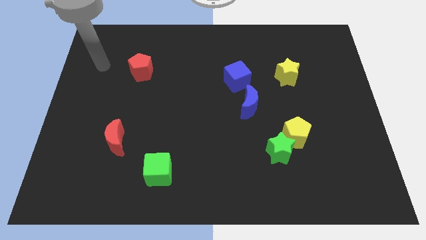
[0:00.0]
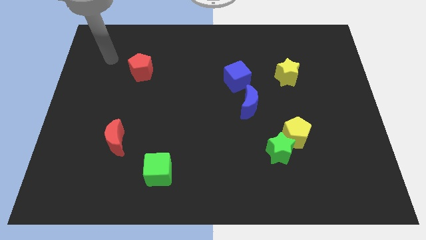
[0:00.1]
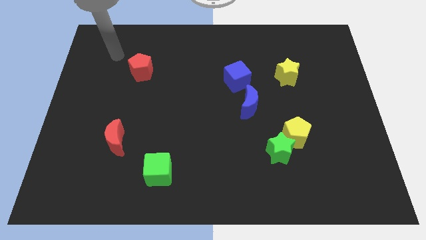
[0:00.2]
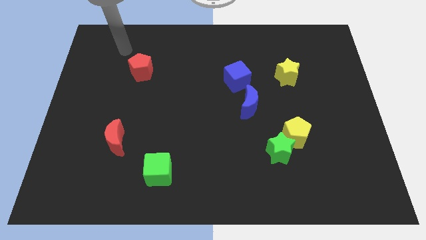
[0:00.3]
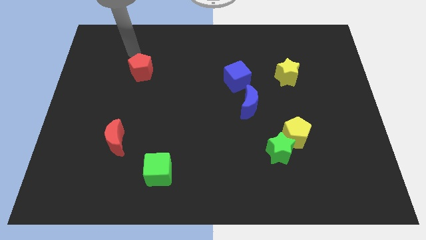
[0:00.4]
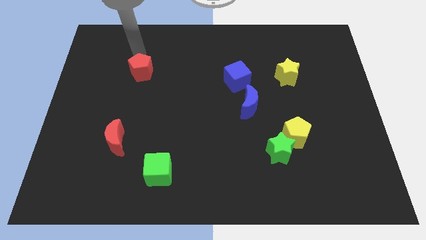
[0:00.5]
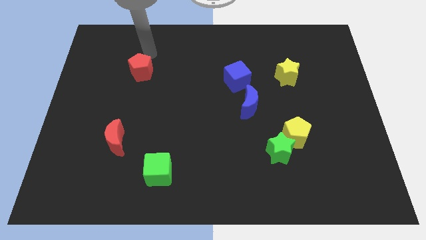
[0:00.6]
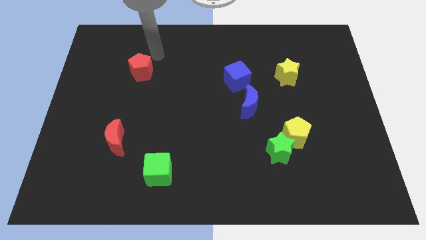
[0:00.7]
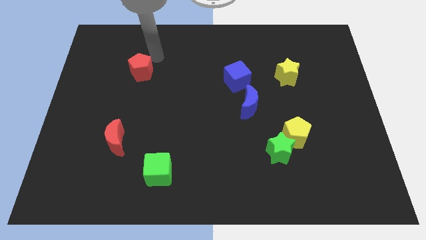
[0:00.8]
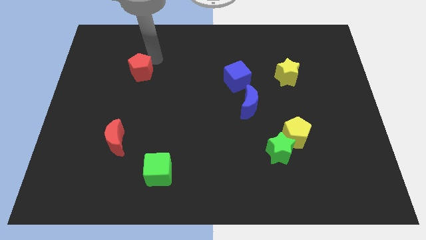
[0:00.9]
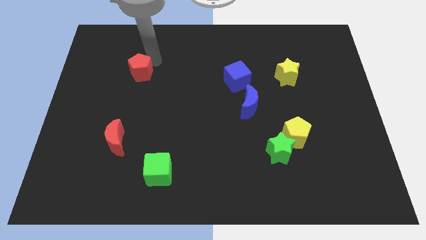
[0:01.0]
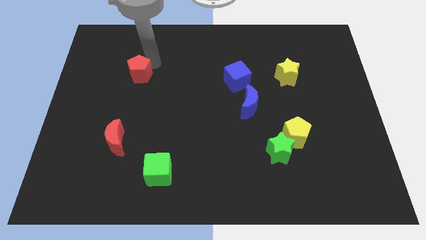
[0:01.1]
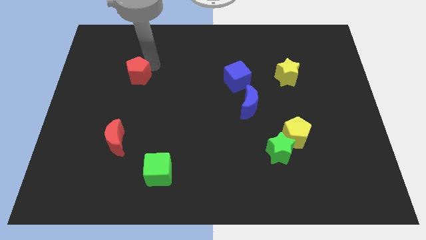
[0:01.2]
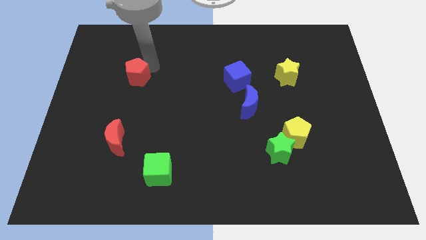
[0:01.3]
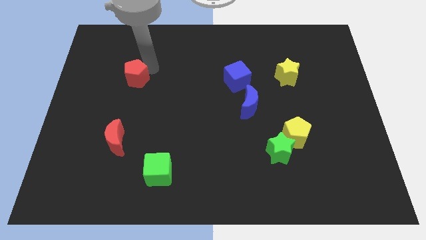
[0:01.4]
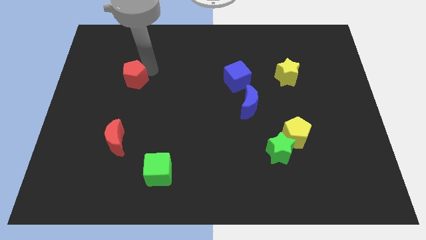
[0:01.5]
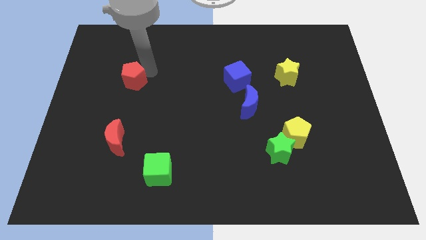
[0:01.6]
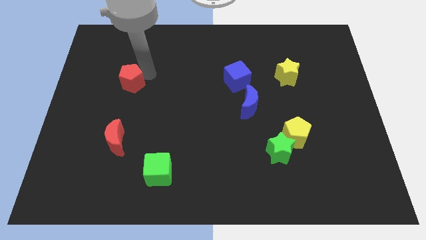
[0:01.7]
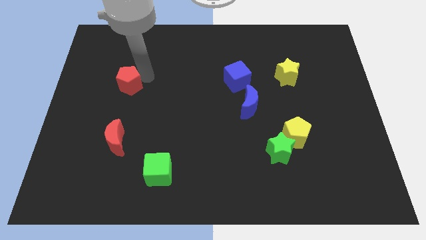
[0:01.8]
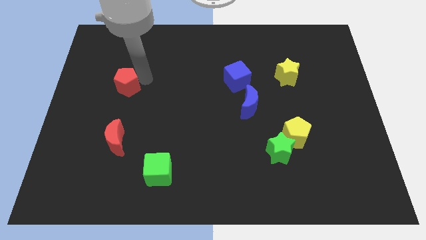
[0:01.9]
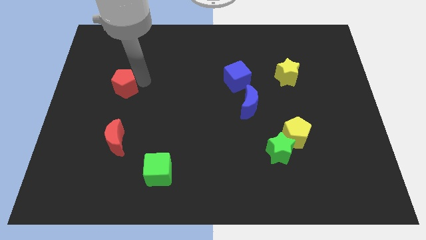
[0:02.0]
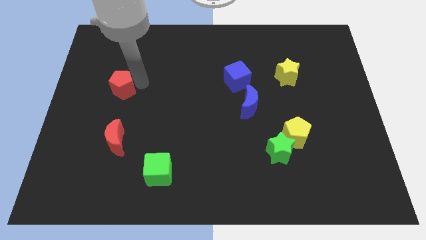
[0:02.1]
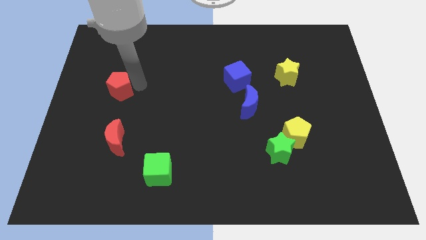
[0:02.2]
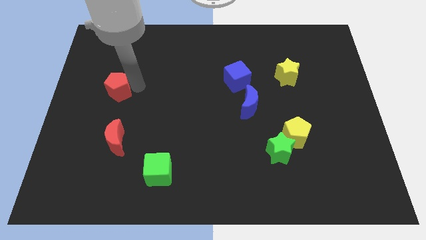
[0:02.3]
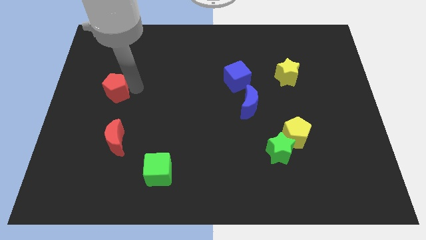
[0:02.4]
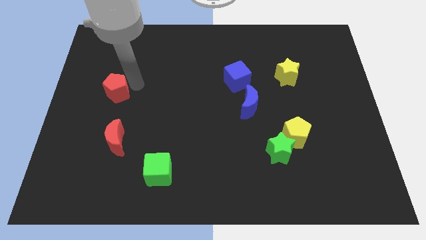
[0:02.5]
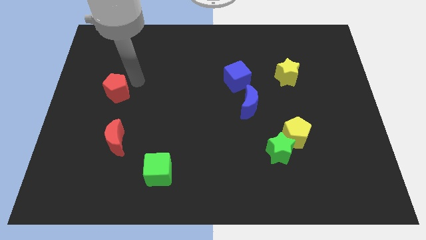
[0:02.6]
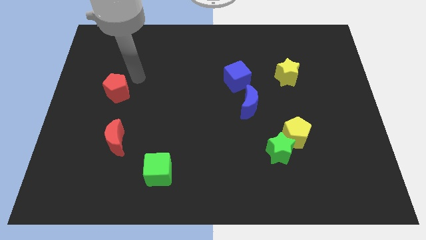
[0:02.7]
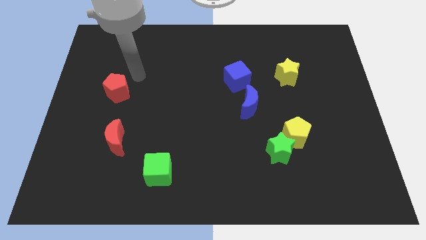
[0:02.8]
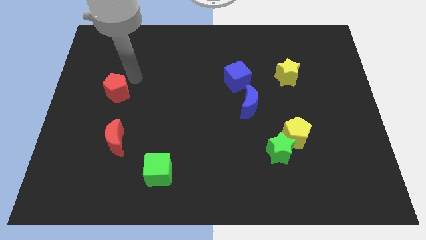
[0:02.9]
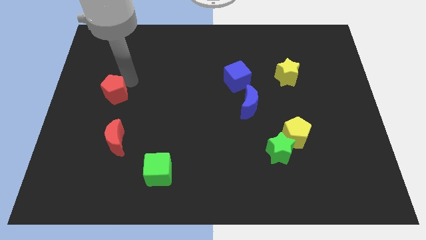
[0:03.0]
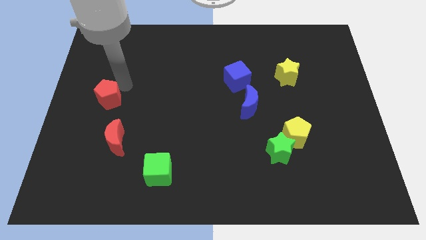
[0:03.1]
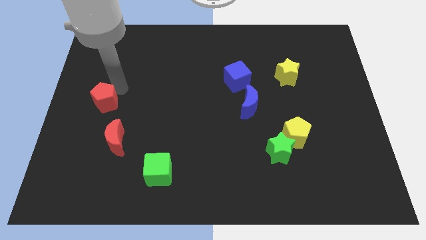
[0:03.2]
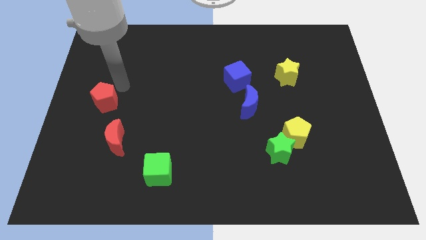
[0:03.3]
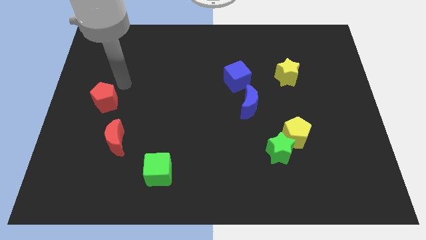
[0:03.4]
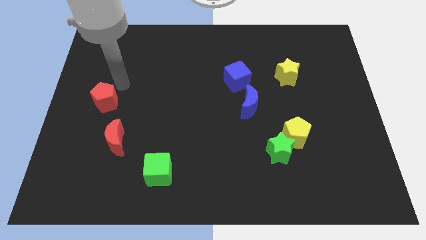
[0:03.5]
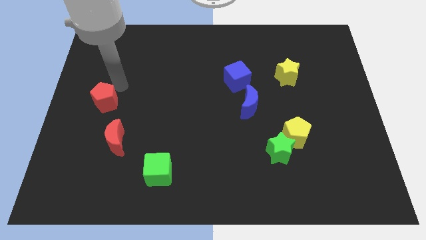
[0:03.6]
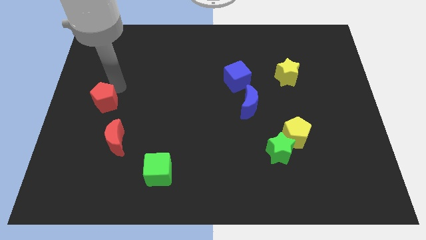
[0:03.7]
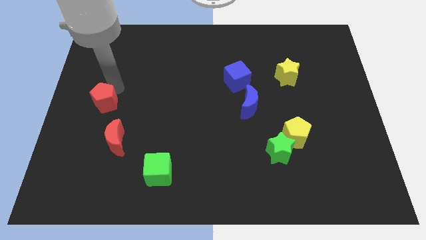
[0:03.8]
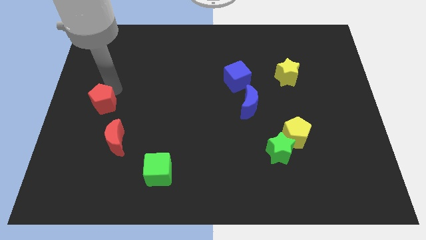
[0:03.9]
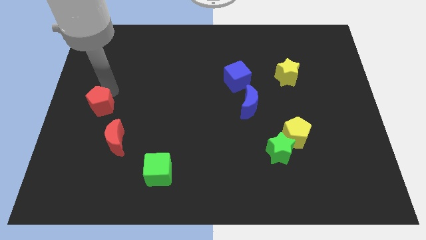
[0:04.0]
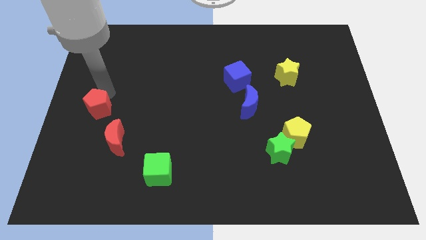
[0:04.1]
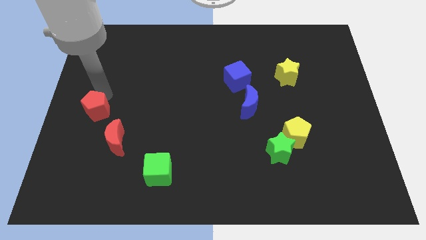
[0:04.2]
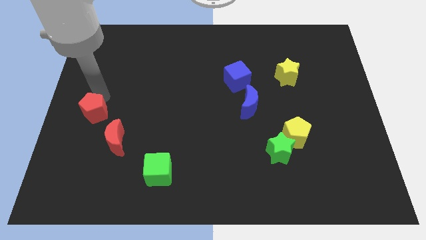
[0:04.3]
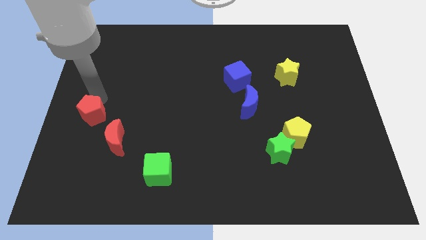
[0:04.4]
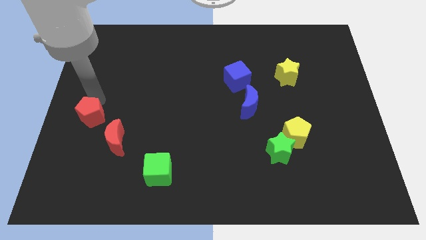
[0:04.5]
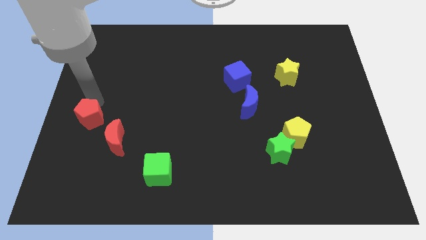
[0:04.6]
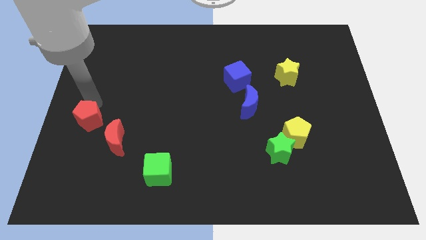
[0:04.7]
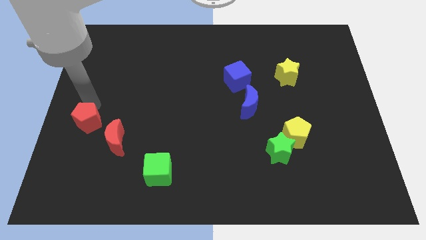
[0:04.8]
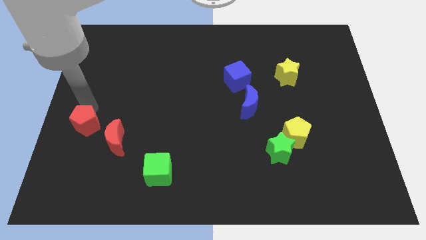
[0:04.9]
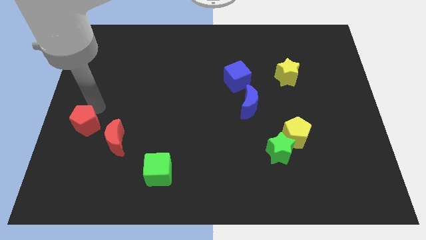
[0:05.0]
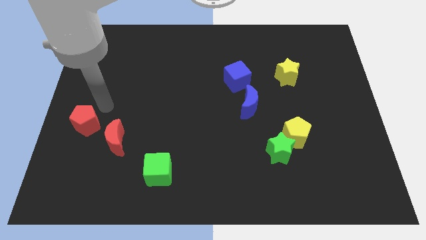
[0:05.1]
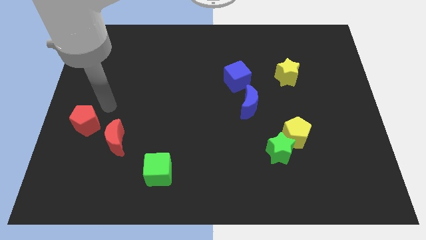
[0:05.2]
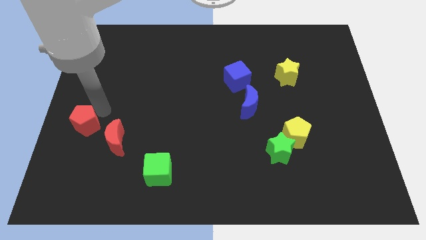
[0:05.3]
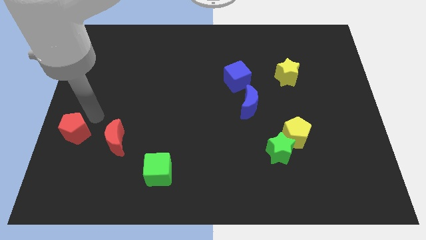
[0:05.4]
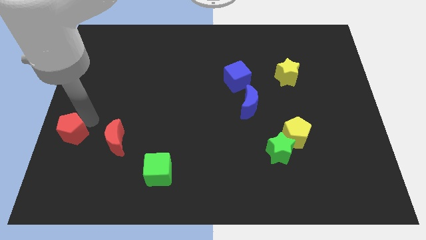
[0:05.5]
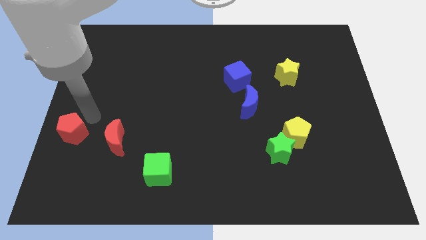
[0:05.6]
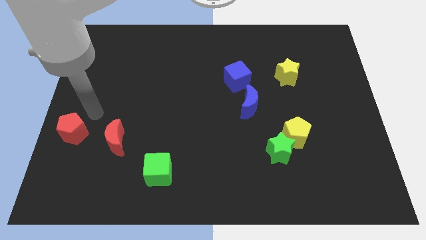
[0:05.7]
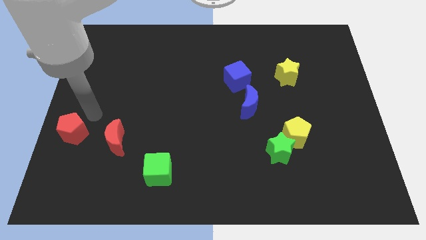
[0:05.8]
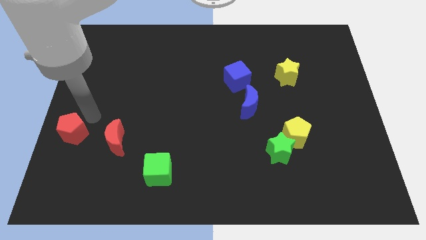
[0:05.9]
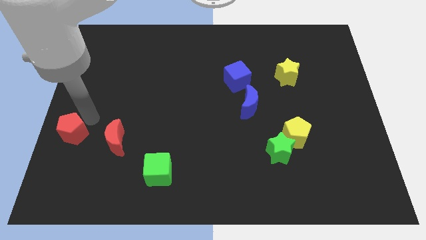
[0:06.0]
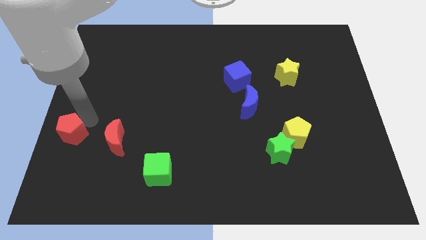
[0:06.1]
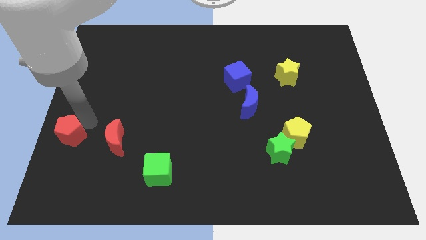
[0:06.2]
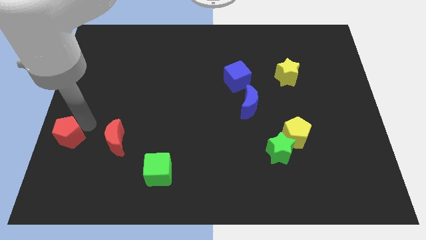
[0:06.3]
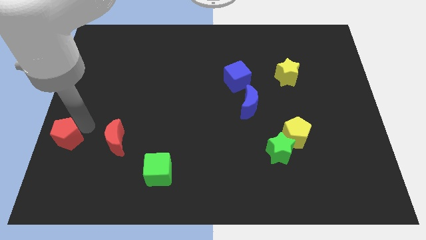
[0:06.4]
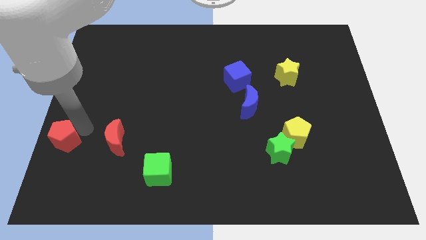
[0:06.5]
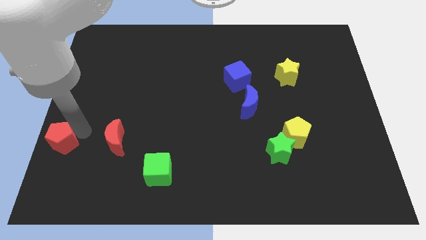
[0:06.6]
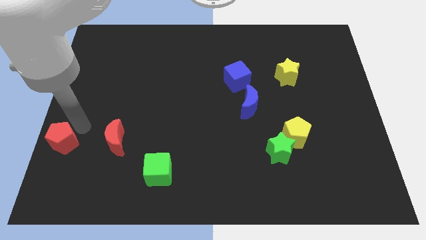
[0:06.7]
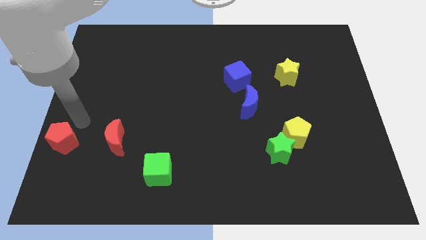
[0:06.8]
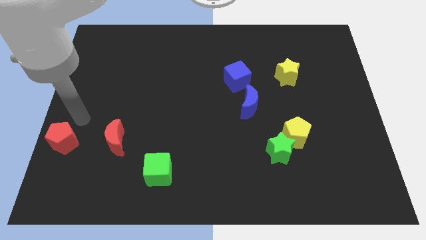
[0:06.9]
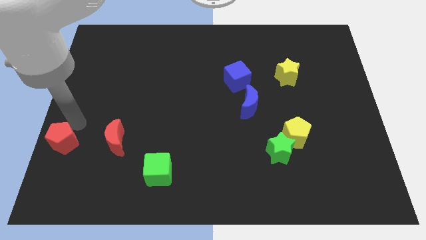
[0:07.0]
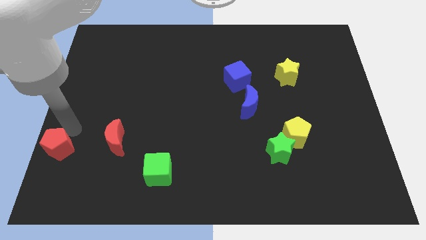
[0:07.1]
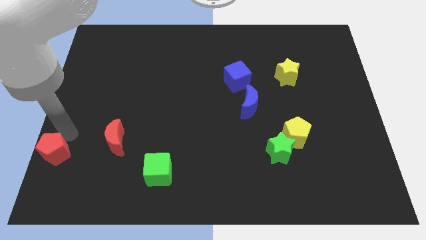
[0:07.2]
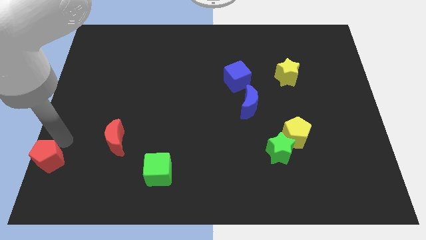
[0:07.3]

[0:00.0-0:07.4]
move the red pentagon to the bottom left of the board
